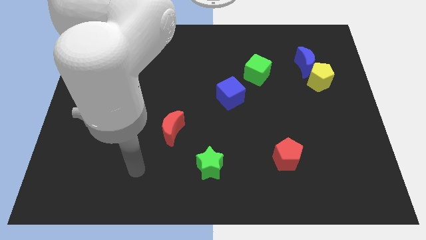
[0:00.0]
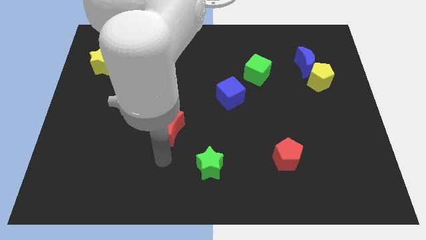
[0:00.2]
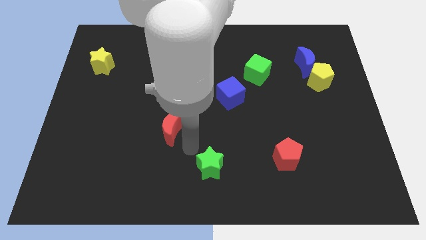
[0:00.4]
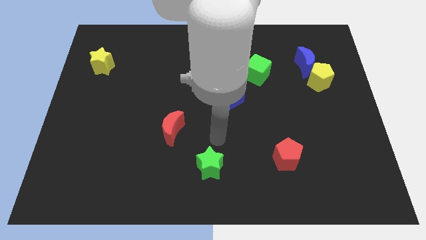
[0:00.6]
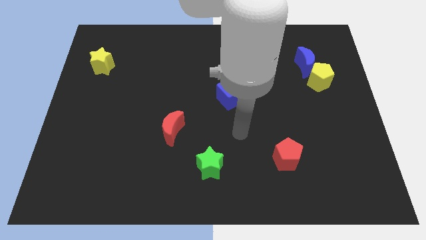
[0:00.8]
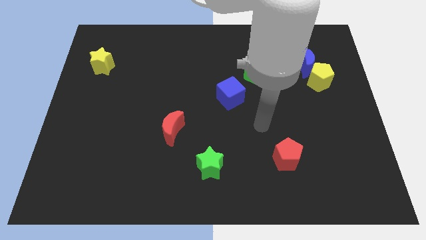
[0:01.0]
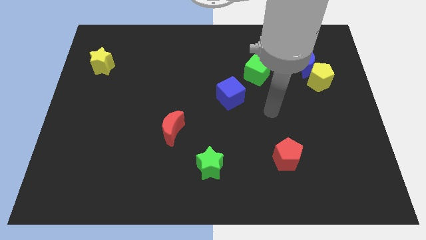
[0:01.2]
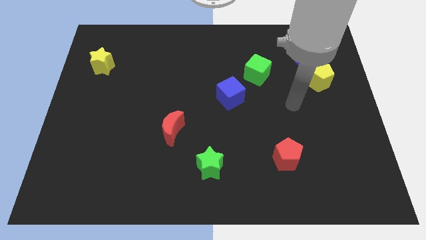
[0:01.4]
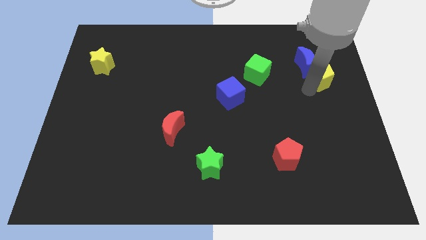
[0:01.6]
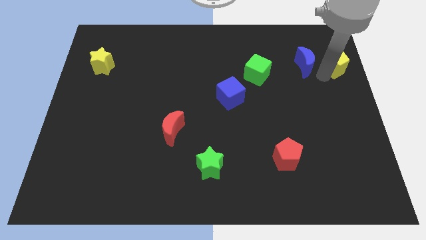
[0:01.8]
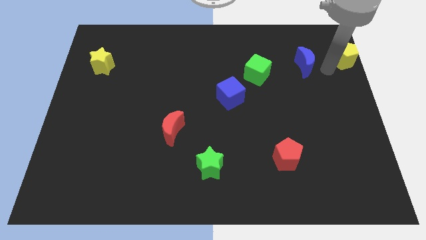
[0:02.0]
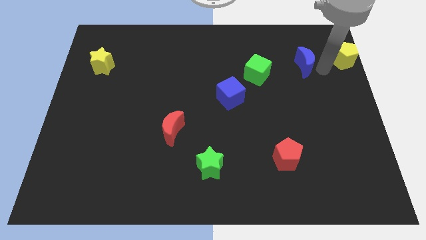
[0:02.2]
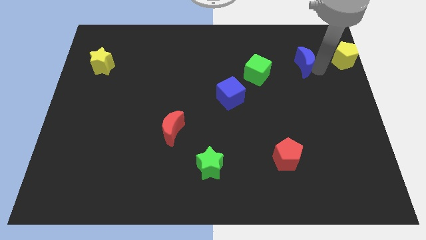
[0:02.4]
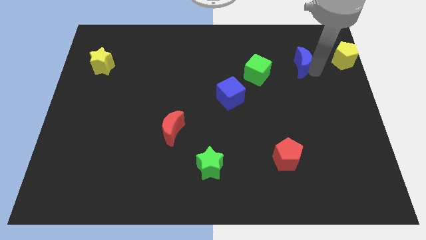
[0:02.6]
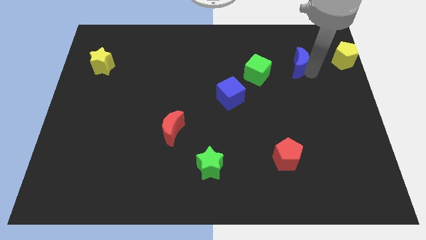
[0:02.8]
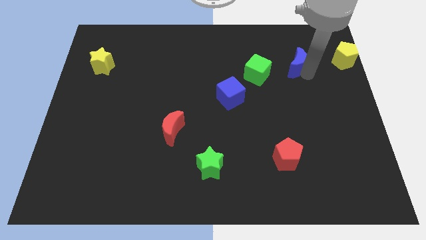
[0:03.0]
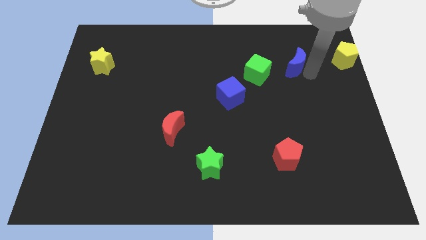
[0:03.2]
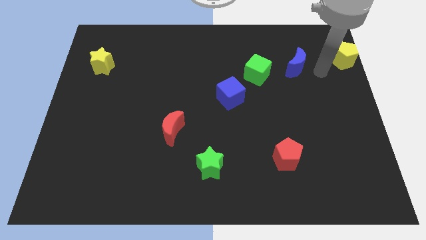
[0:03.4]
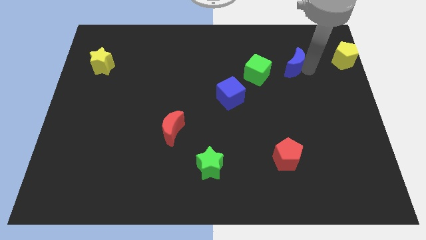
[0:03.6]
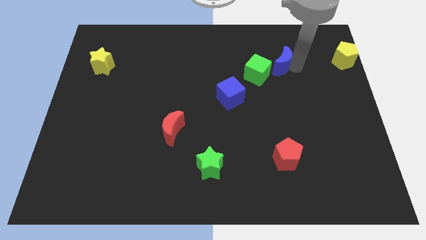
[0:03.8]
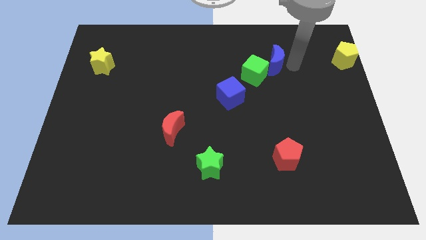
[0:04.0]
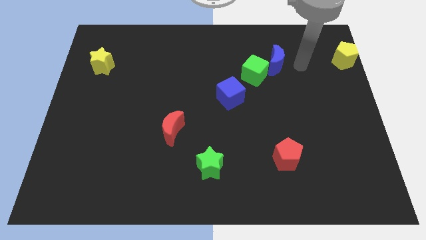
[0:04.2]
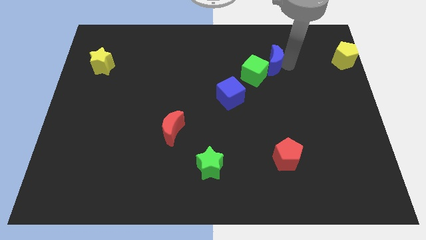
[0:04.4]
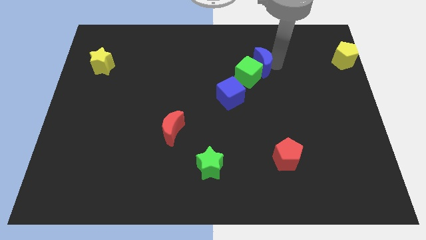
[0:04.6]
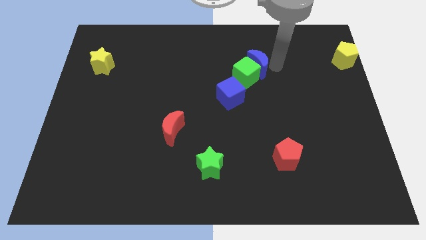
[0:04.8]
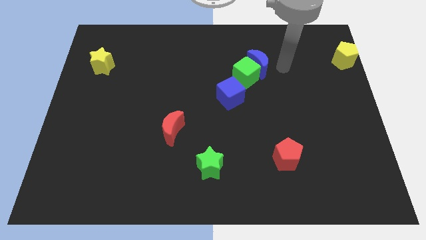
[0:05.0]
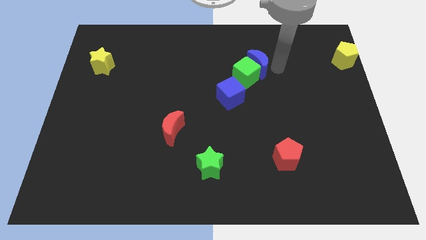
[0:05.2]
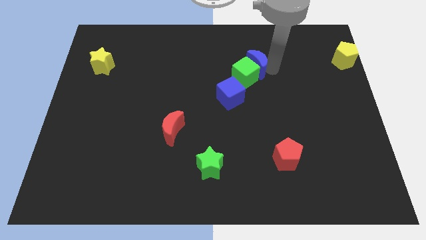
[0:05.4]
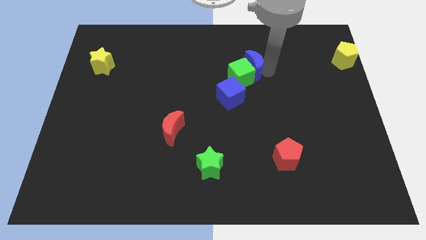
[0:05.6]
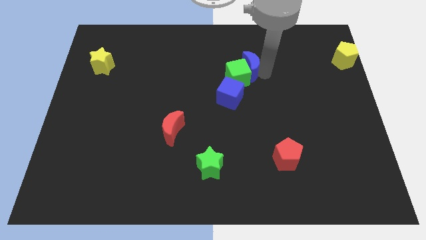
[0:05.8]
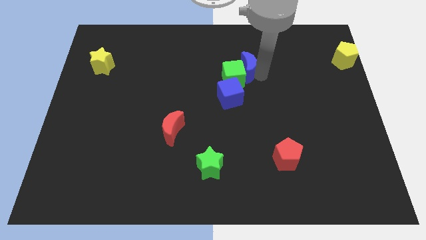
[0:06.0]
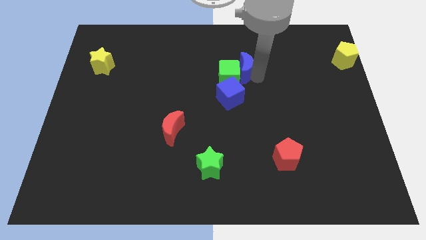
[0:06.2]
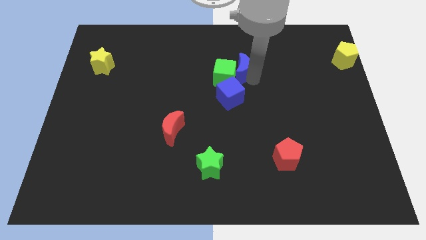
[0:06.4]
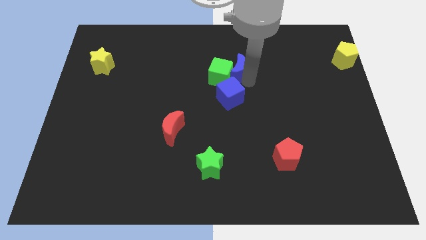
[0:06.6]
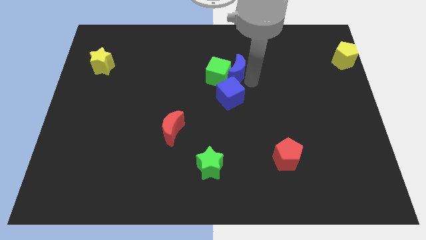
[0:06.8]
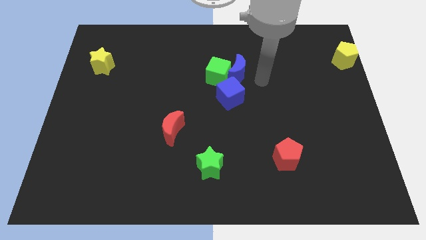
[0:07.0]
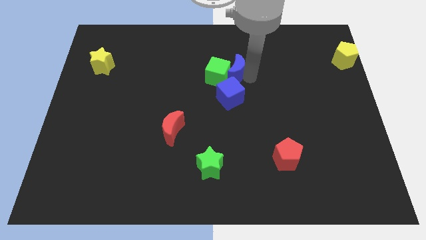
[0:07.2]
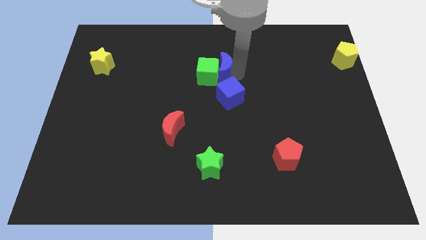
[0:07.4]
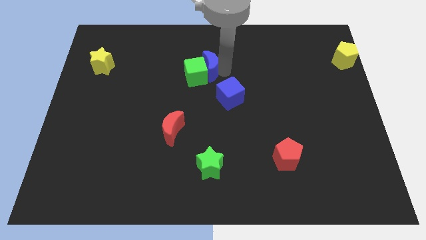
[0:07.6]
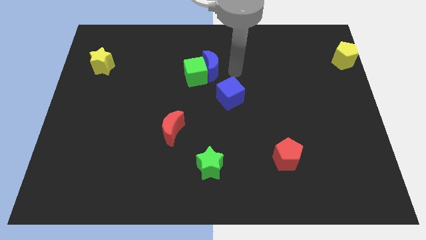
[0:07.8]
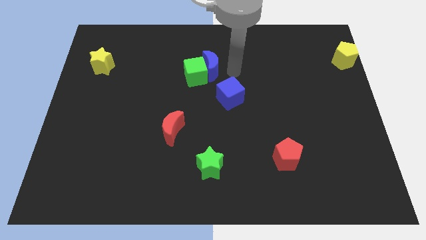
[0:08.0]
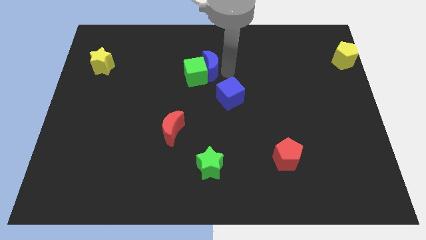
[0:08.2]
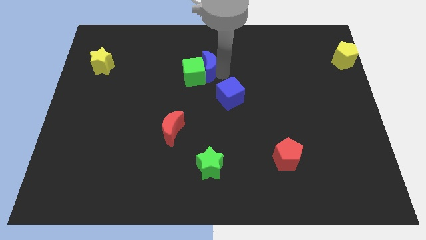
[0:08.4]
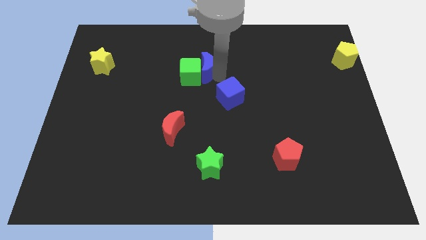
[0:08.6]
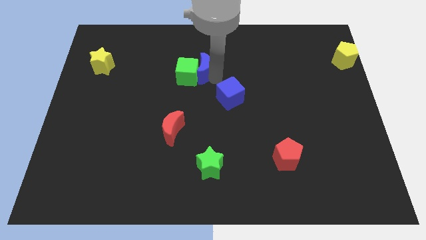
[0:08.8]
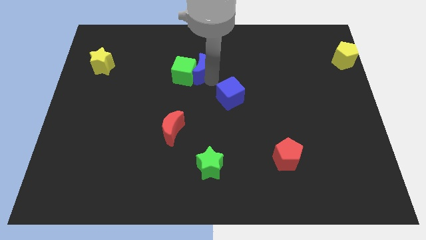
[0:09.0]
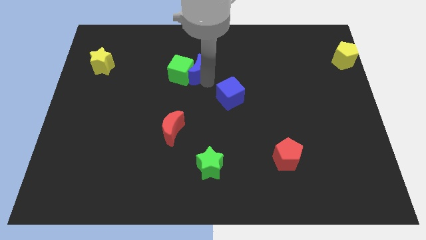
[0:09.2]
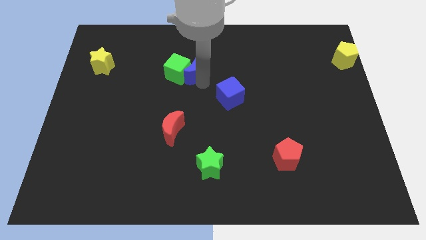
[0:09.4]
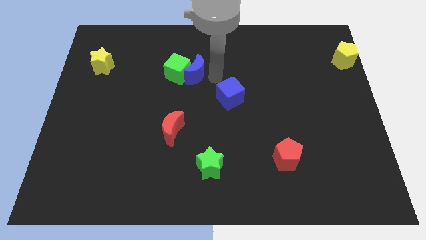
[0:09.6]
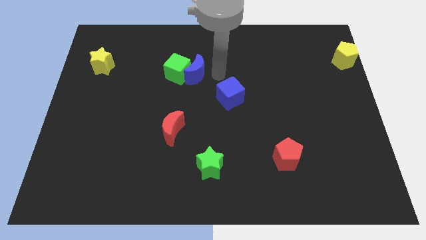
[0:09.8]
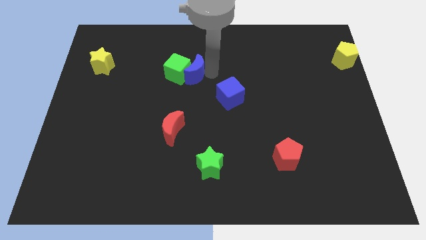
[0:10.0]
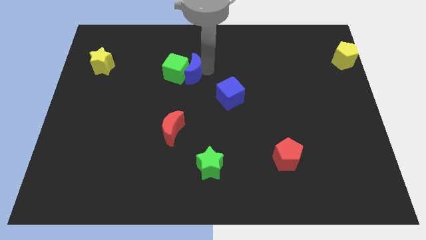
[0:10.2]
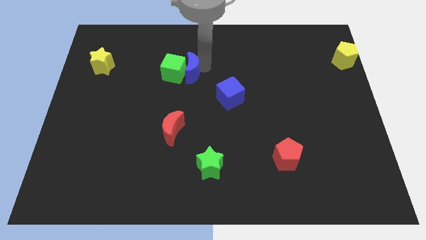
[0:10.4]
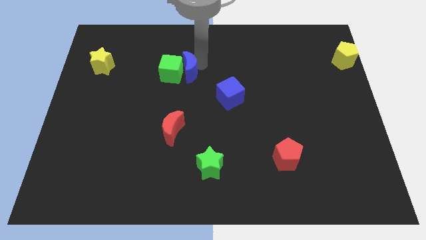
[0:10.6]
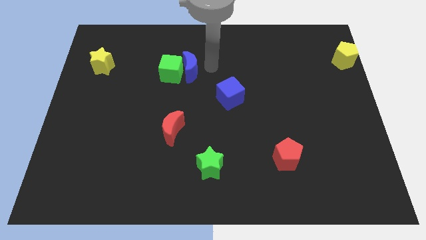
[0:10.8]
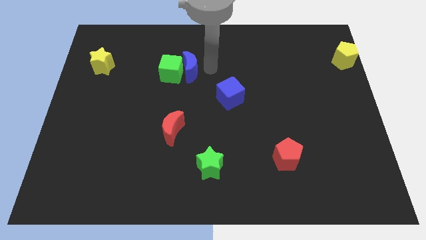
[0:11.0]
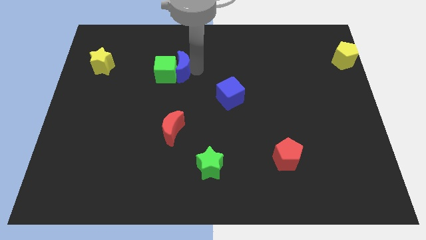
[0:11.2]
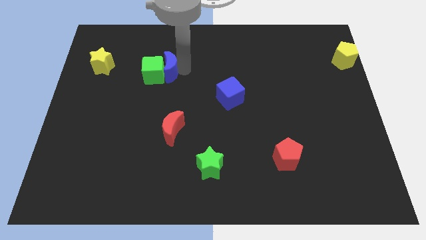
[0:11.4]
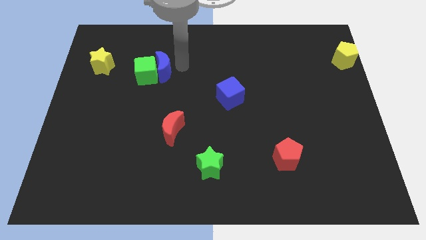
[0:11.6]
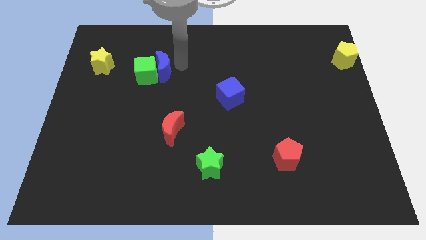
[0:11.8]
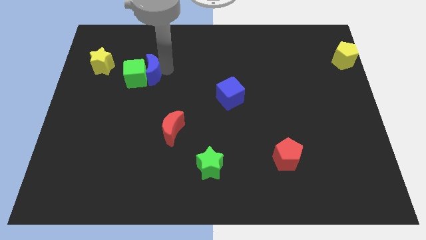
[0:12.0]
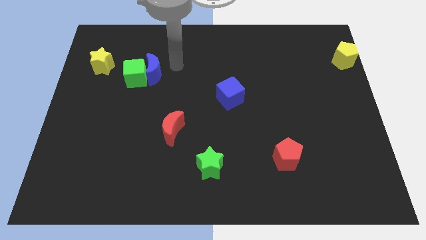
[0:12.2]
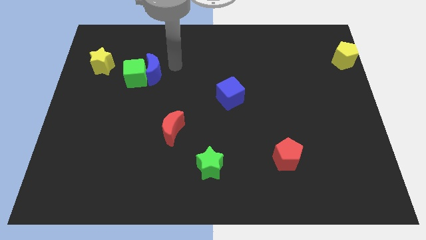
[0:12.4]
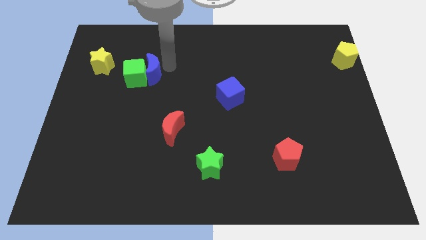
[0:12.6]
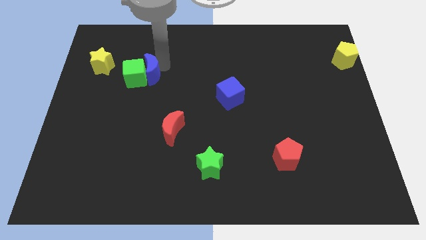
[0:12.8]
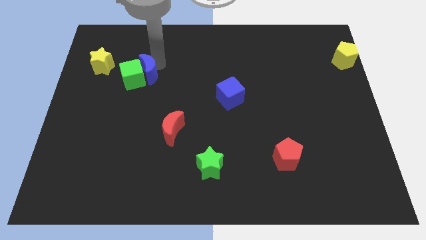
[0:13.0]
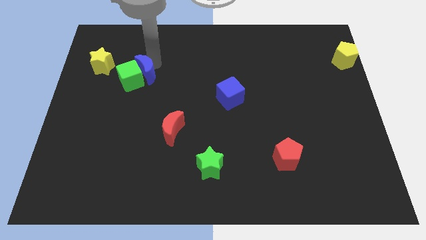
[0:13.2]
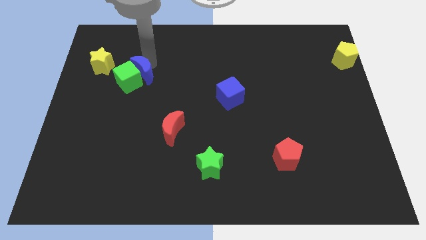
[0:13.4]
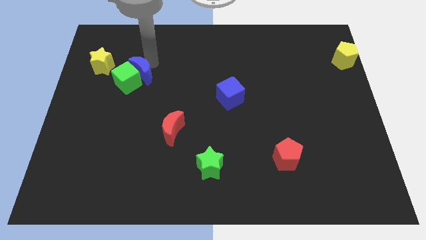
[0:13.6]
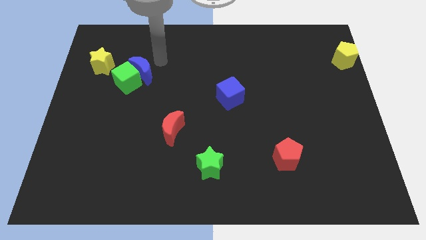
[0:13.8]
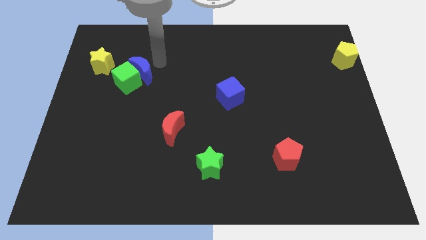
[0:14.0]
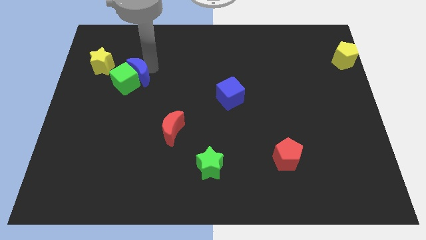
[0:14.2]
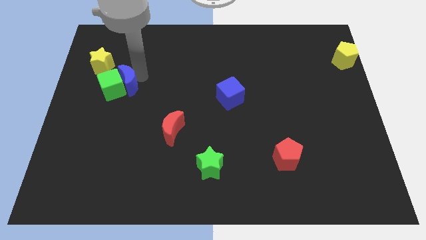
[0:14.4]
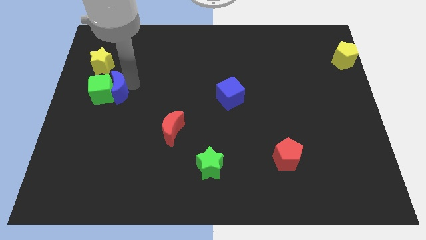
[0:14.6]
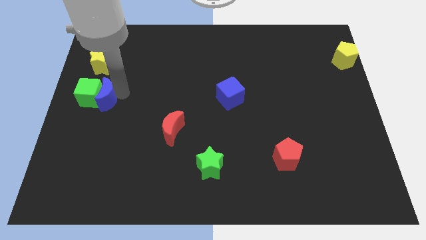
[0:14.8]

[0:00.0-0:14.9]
push the blue moon to the center left
